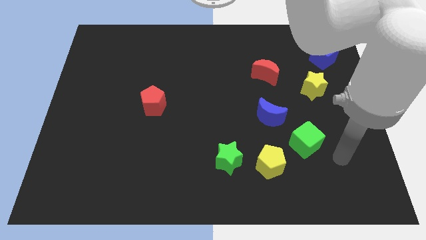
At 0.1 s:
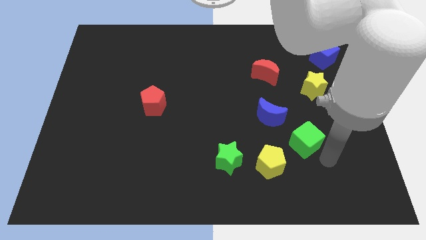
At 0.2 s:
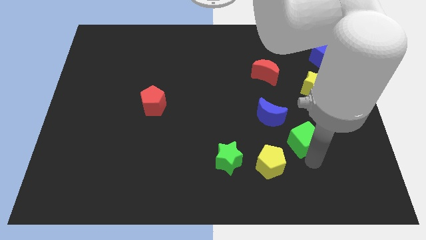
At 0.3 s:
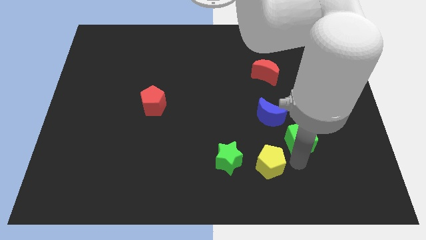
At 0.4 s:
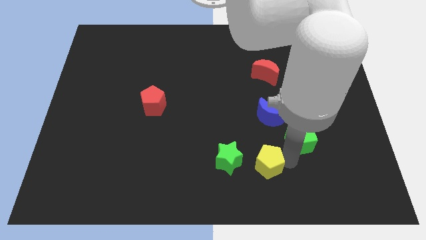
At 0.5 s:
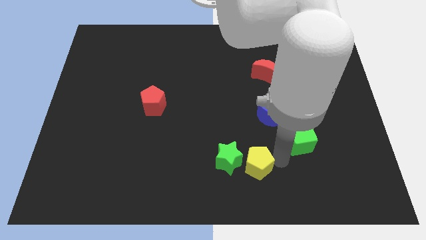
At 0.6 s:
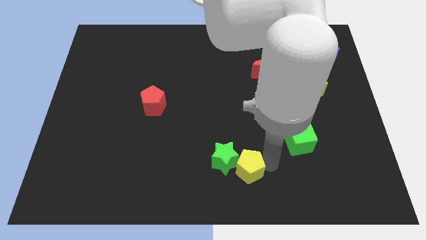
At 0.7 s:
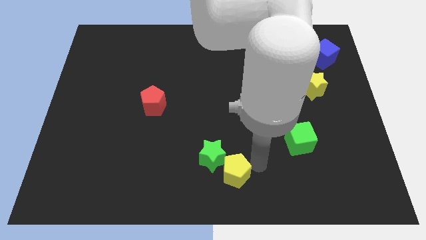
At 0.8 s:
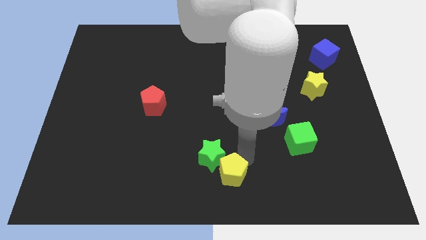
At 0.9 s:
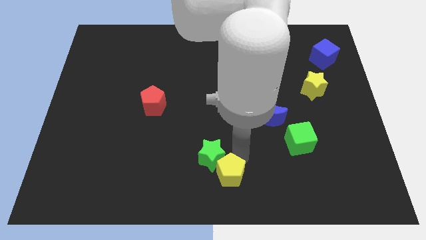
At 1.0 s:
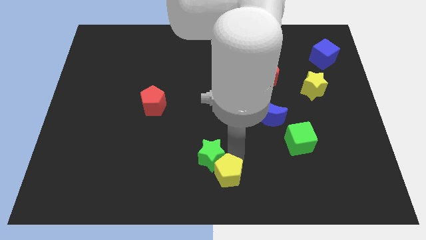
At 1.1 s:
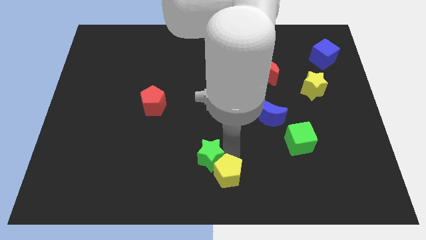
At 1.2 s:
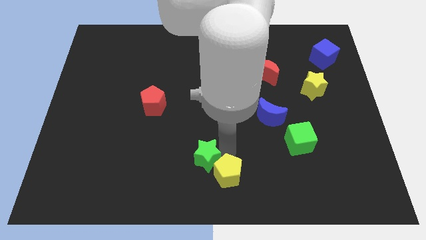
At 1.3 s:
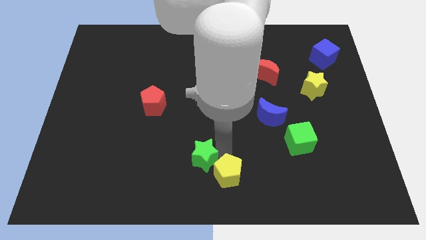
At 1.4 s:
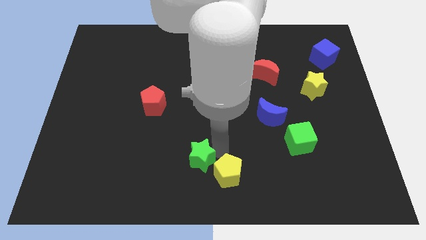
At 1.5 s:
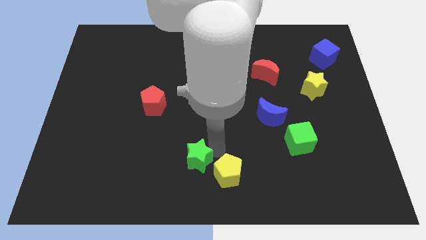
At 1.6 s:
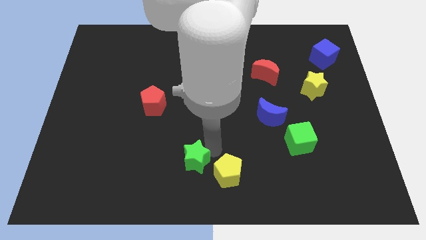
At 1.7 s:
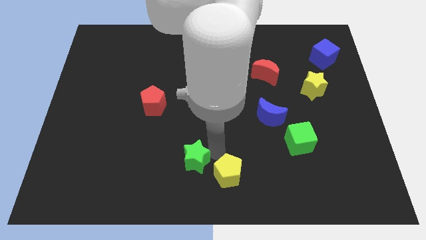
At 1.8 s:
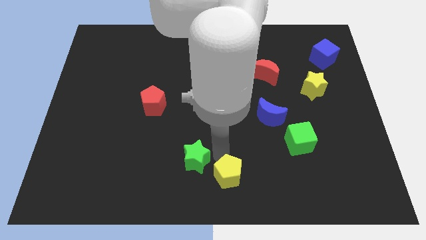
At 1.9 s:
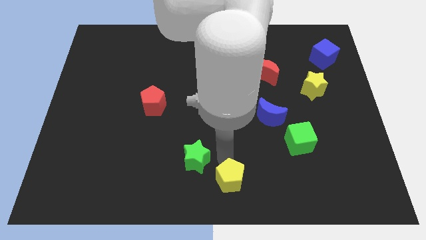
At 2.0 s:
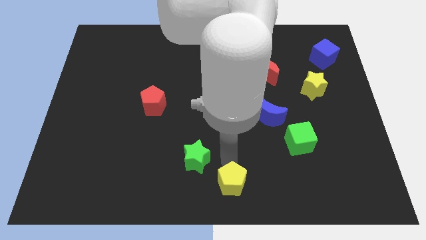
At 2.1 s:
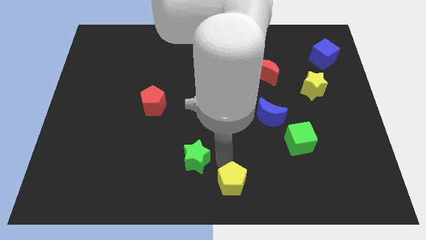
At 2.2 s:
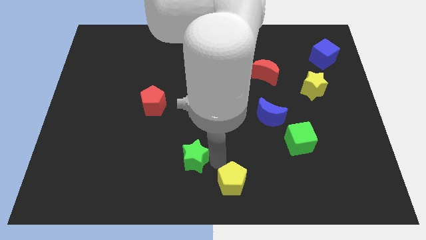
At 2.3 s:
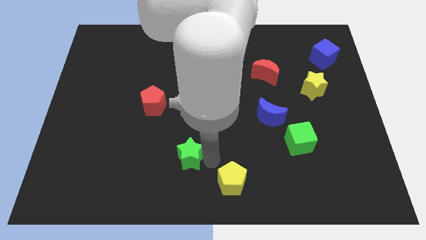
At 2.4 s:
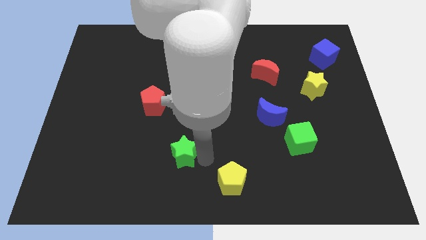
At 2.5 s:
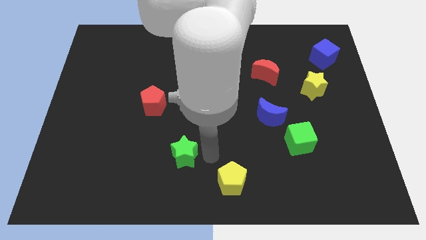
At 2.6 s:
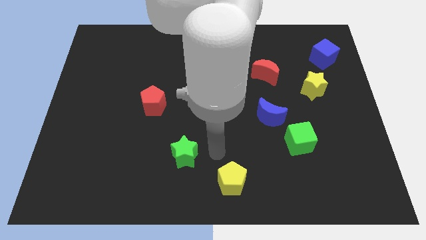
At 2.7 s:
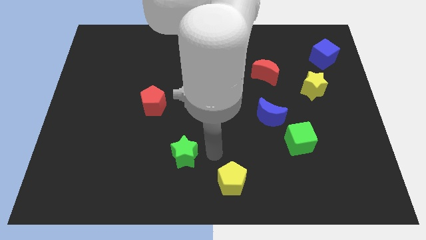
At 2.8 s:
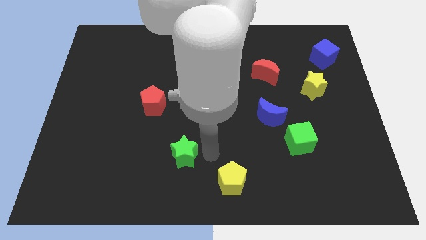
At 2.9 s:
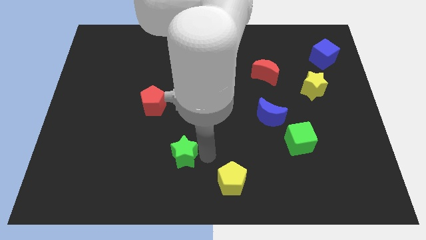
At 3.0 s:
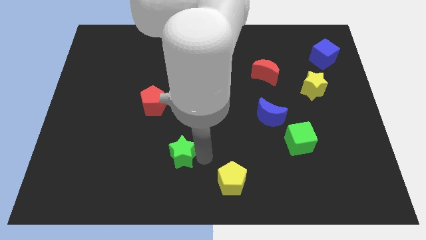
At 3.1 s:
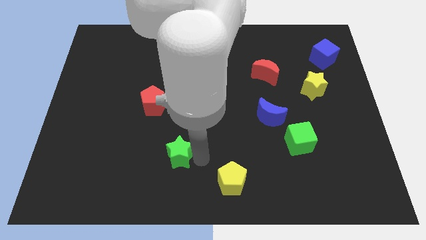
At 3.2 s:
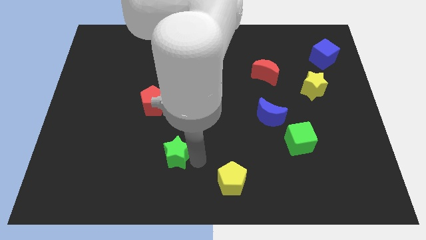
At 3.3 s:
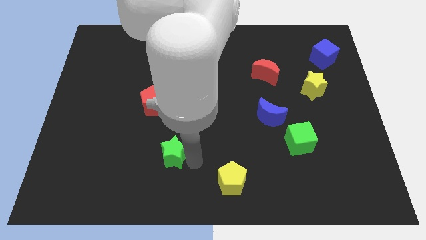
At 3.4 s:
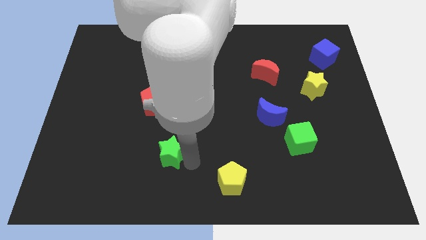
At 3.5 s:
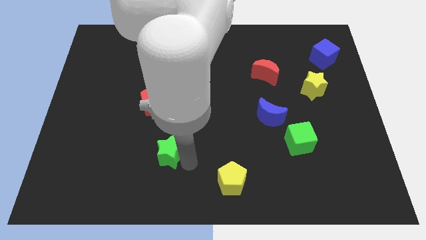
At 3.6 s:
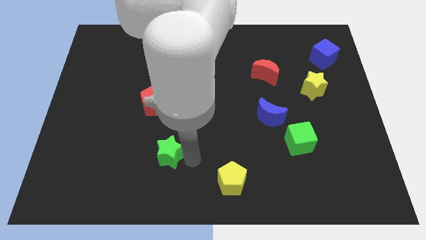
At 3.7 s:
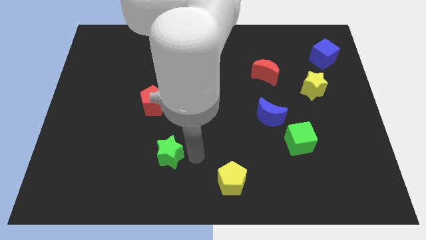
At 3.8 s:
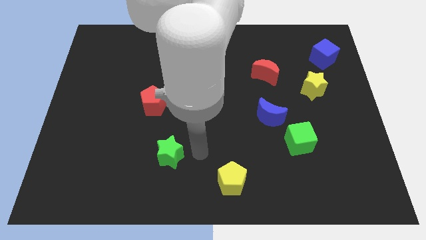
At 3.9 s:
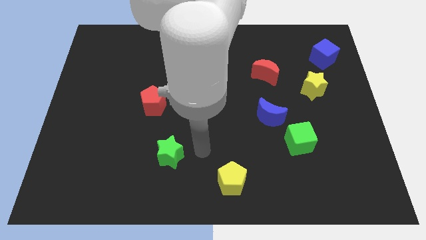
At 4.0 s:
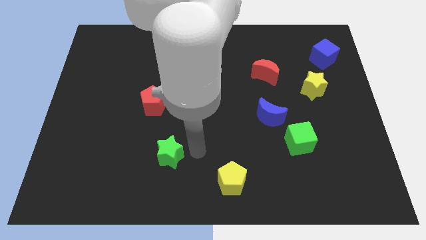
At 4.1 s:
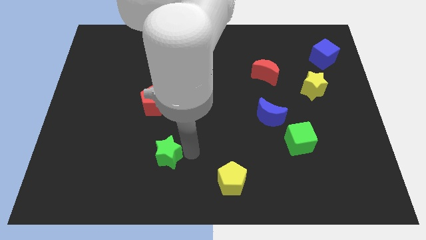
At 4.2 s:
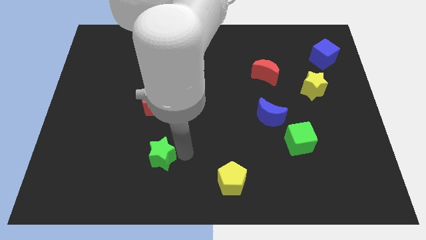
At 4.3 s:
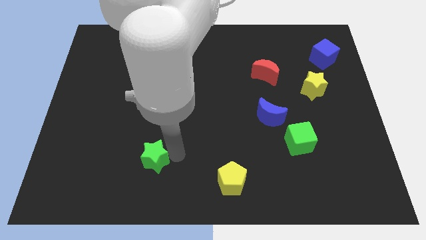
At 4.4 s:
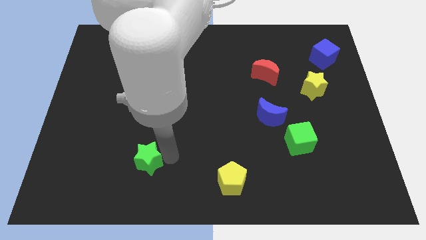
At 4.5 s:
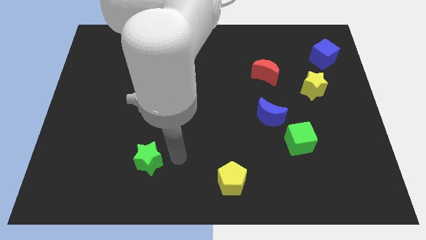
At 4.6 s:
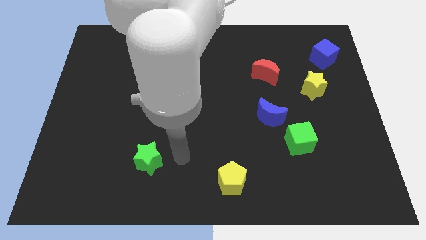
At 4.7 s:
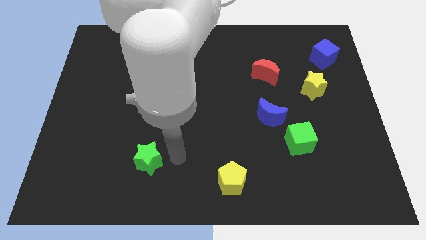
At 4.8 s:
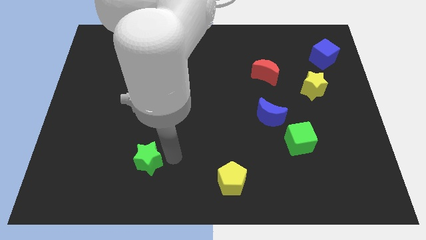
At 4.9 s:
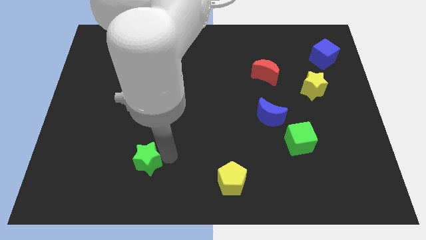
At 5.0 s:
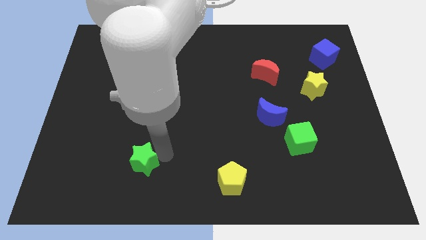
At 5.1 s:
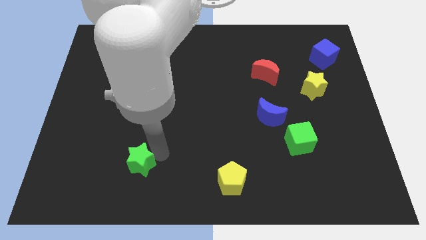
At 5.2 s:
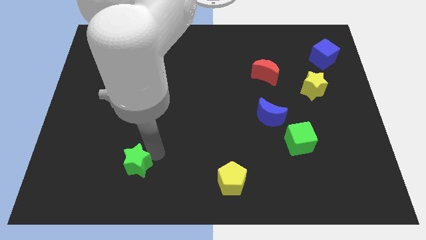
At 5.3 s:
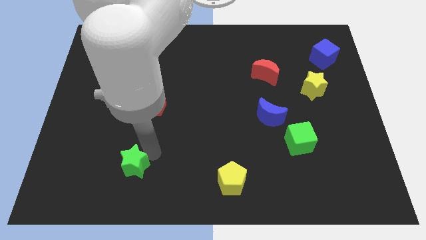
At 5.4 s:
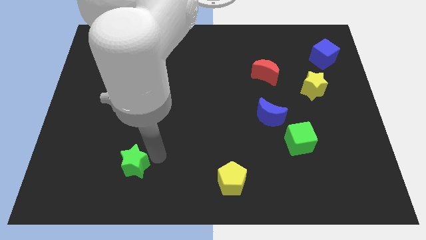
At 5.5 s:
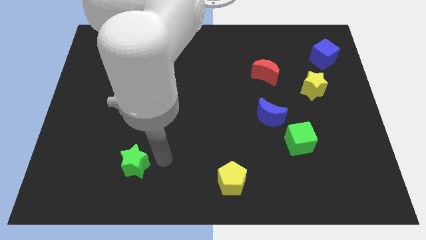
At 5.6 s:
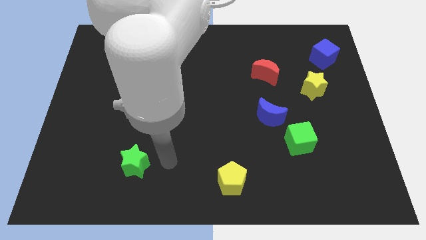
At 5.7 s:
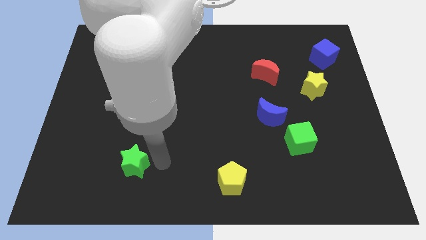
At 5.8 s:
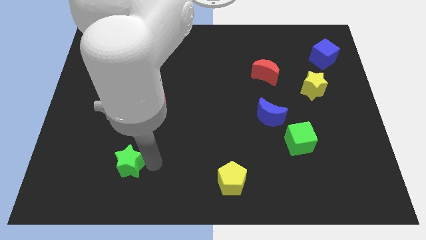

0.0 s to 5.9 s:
slide the green star left

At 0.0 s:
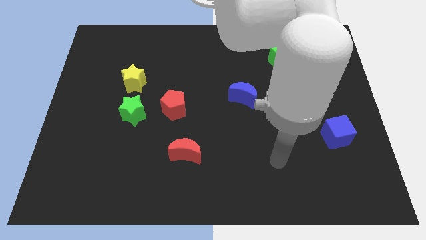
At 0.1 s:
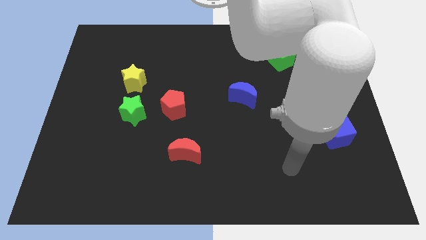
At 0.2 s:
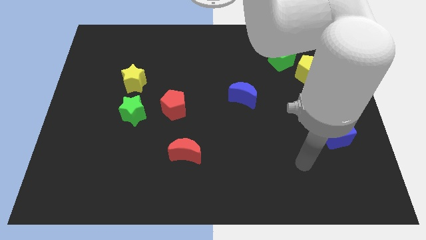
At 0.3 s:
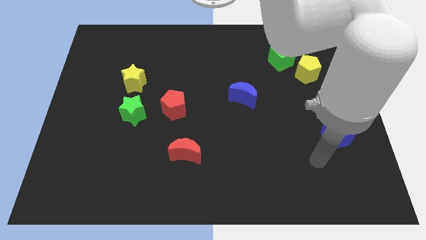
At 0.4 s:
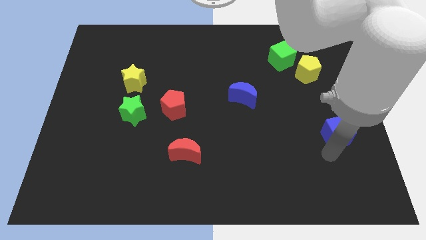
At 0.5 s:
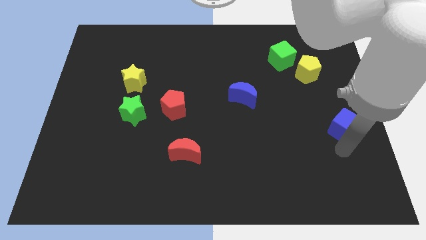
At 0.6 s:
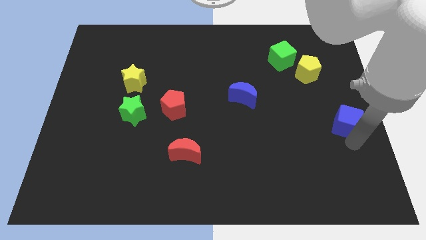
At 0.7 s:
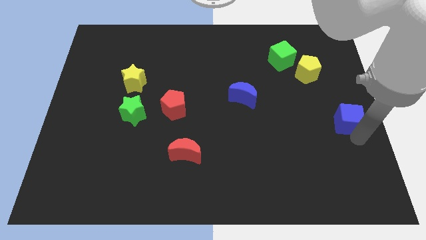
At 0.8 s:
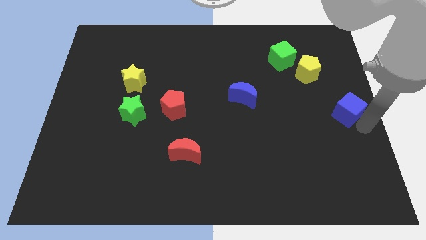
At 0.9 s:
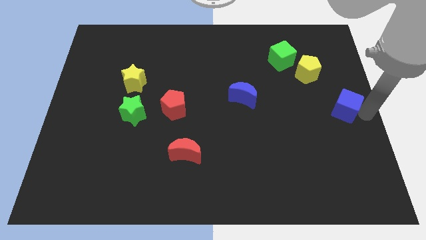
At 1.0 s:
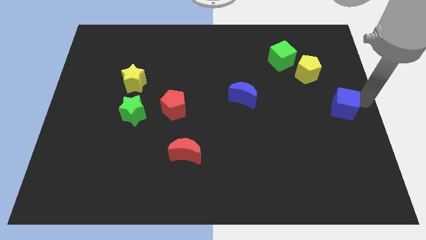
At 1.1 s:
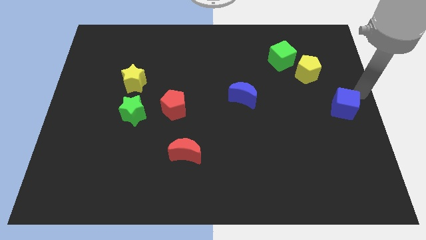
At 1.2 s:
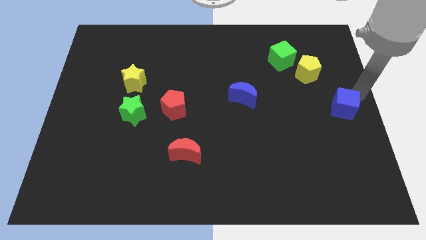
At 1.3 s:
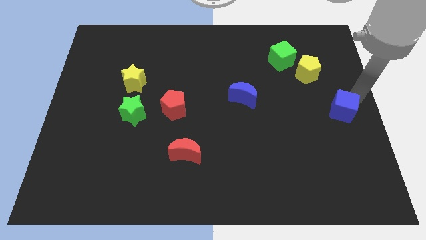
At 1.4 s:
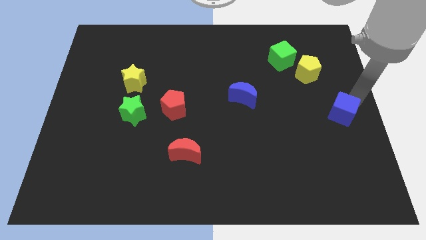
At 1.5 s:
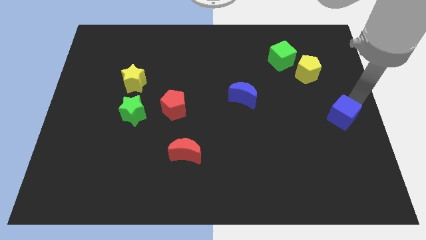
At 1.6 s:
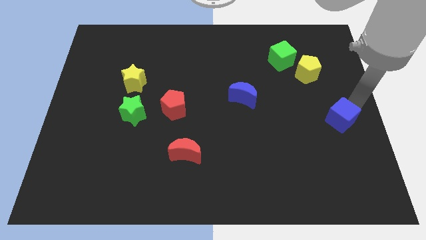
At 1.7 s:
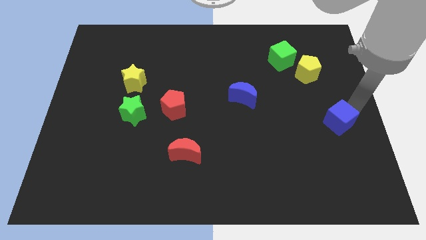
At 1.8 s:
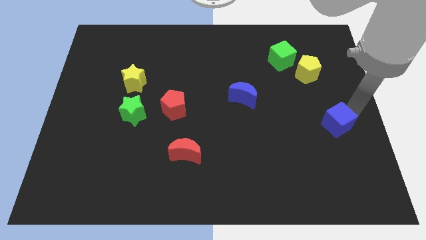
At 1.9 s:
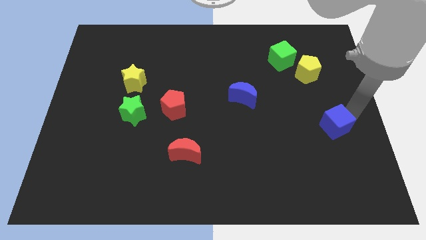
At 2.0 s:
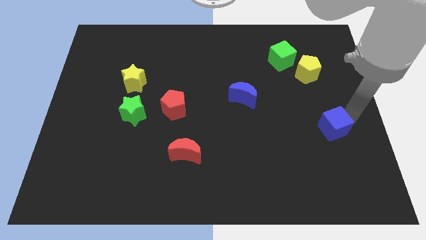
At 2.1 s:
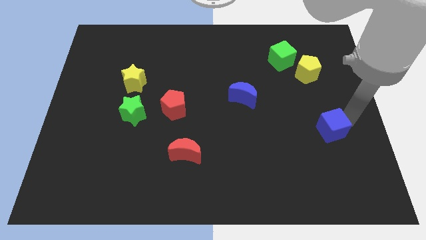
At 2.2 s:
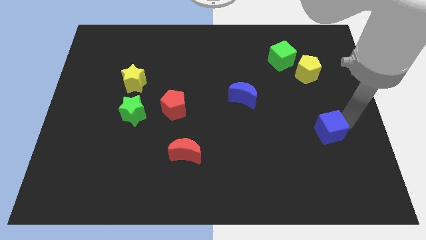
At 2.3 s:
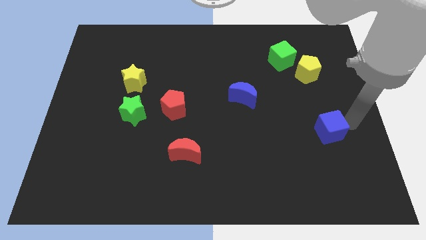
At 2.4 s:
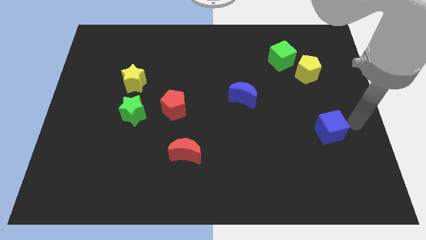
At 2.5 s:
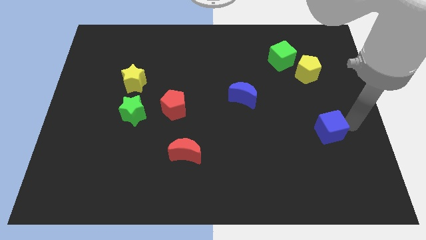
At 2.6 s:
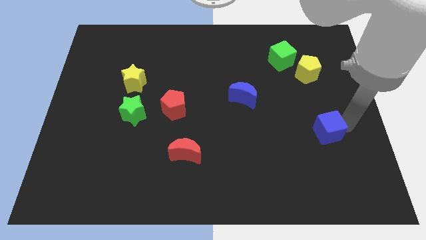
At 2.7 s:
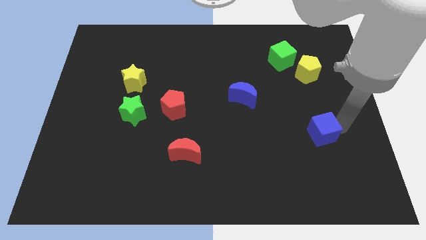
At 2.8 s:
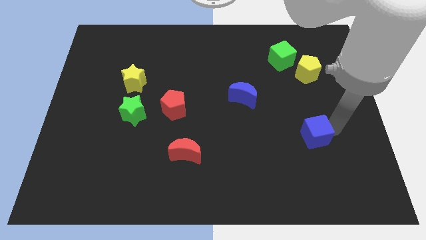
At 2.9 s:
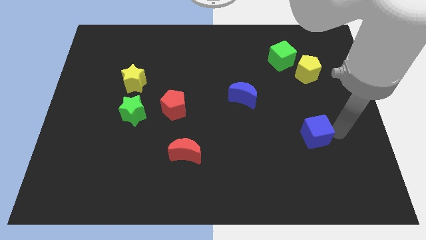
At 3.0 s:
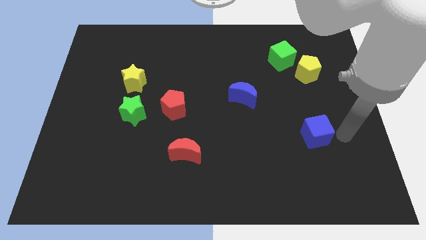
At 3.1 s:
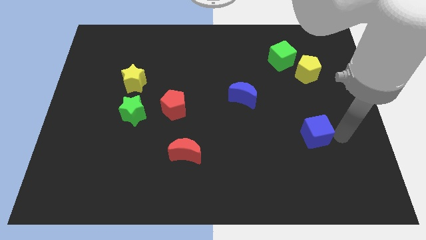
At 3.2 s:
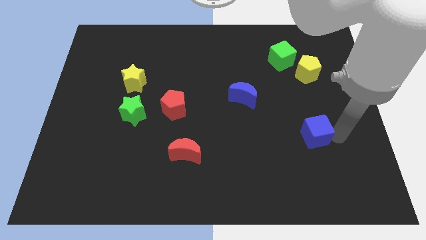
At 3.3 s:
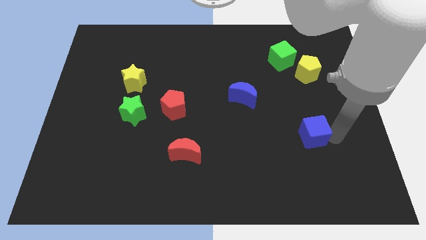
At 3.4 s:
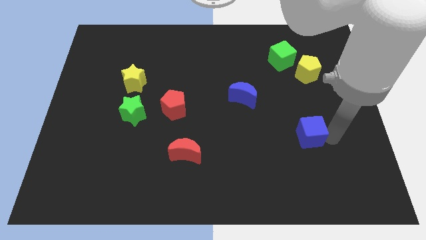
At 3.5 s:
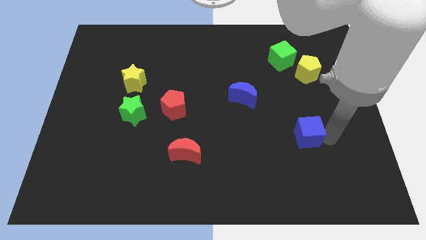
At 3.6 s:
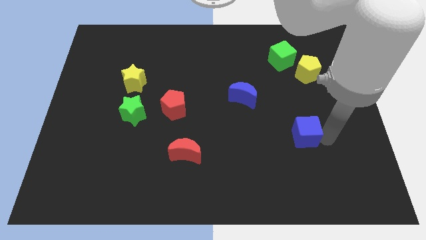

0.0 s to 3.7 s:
move the blue cube a bit to the left
